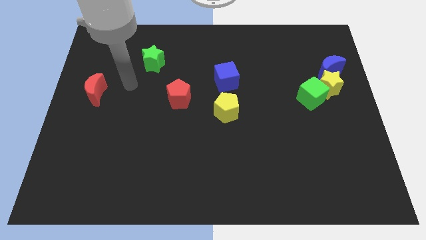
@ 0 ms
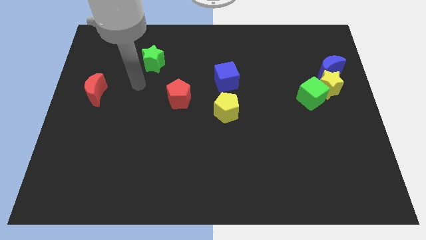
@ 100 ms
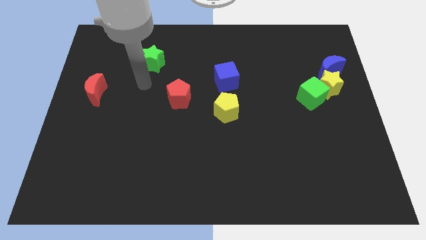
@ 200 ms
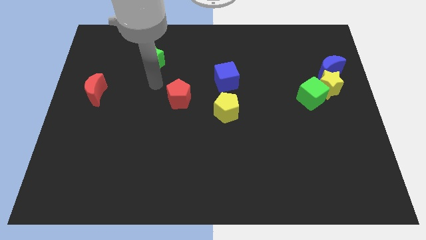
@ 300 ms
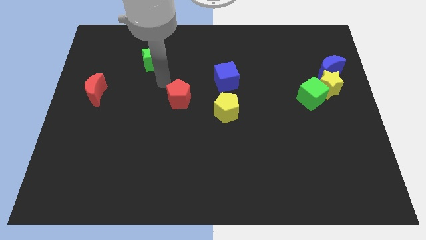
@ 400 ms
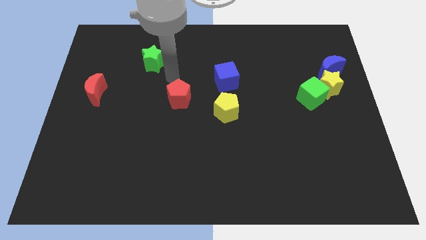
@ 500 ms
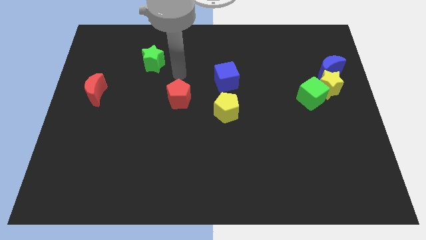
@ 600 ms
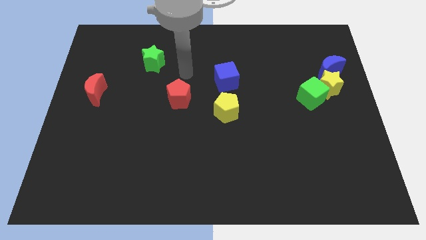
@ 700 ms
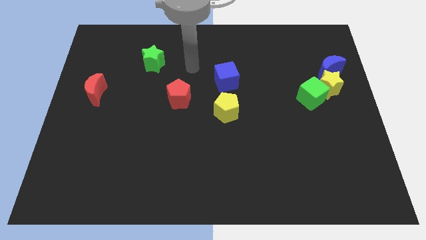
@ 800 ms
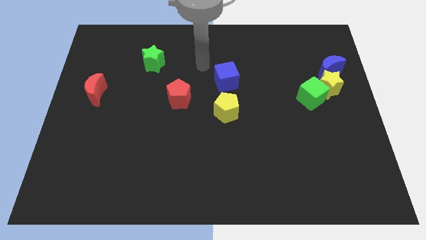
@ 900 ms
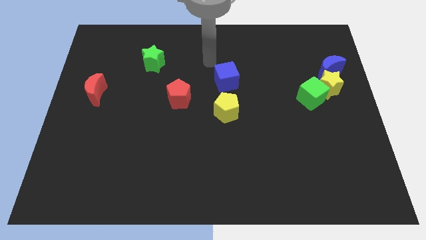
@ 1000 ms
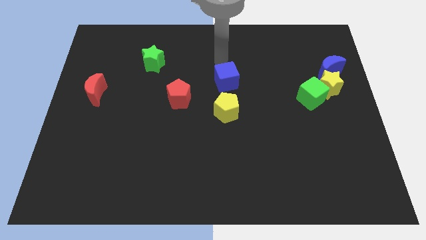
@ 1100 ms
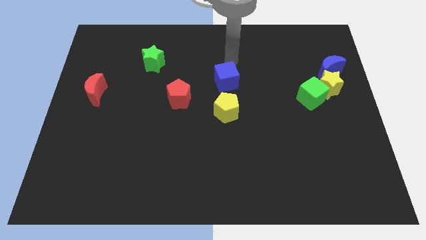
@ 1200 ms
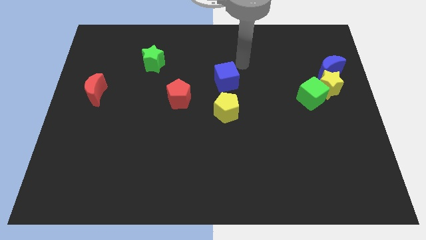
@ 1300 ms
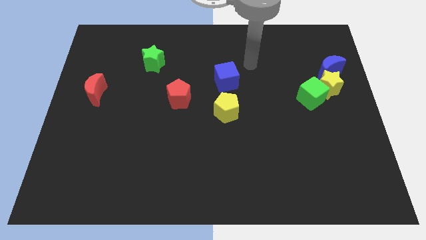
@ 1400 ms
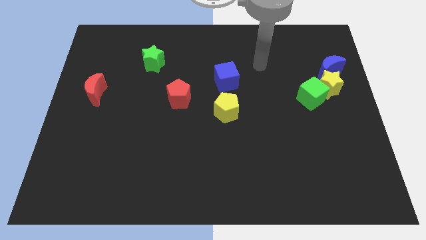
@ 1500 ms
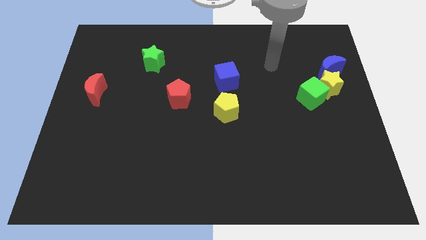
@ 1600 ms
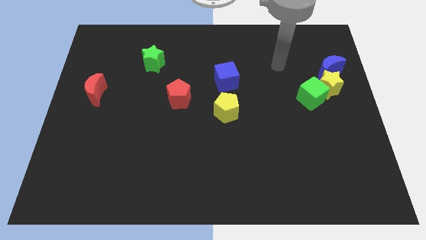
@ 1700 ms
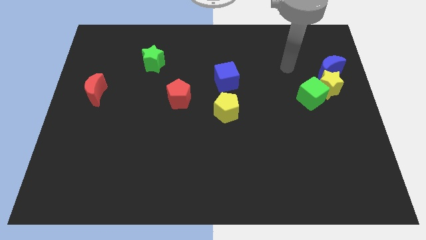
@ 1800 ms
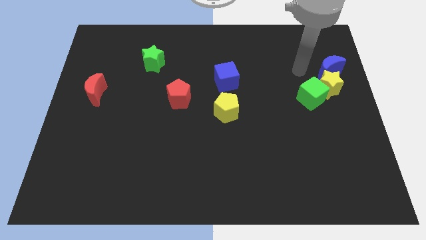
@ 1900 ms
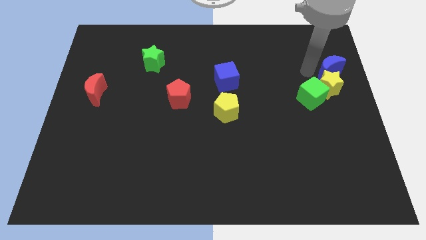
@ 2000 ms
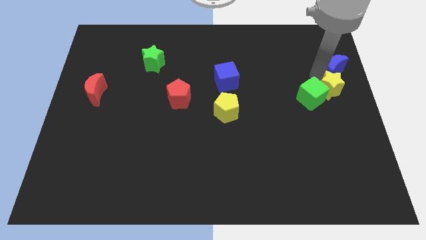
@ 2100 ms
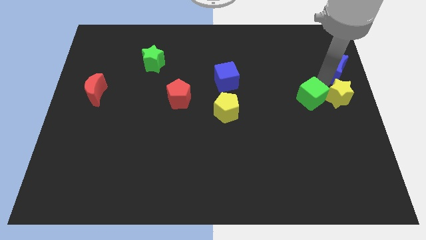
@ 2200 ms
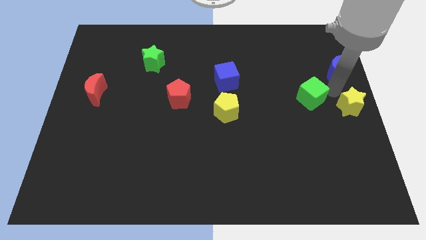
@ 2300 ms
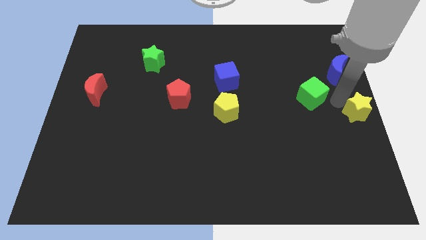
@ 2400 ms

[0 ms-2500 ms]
pull the green cube apart from the yellow star

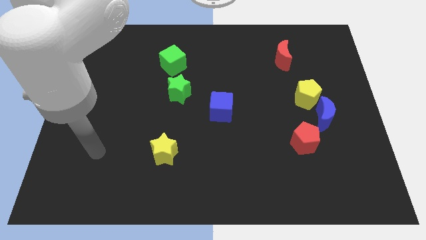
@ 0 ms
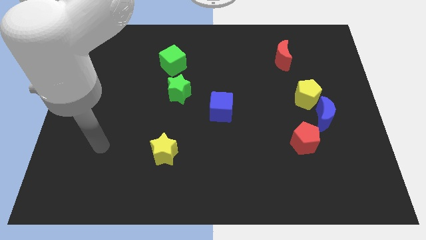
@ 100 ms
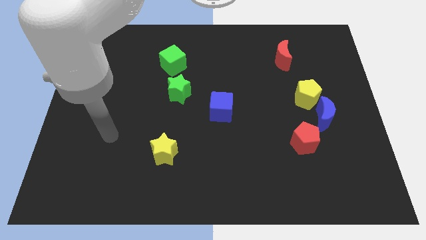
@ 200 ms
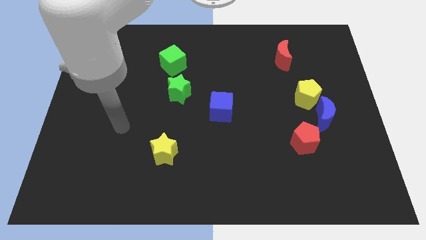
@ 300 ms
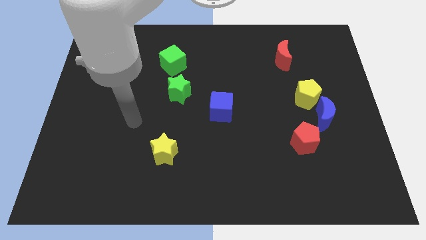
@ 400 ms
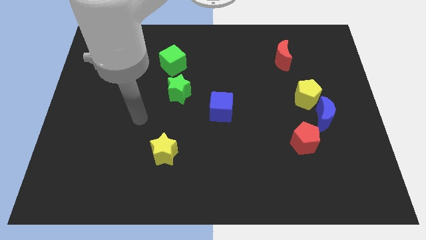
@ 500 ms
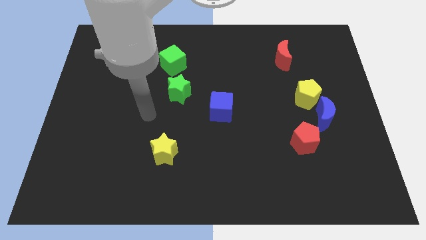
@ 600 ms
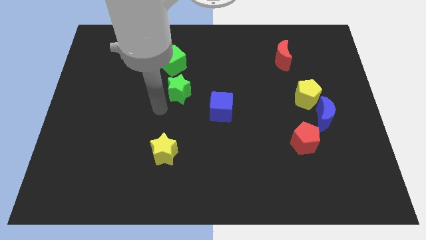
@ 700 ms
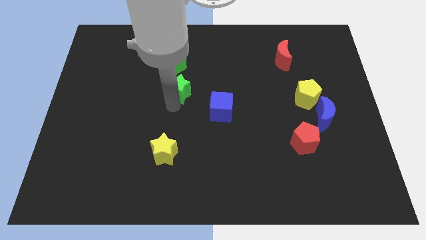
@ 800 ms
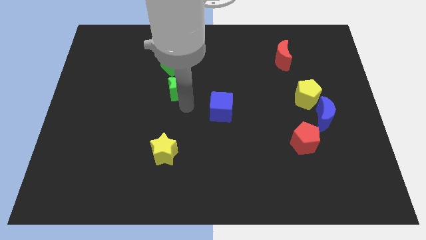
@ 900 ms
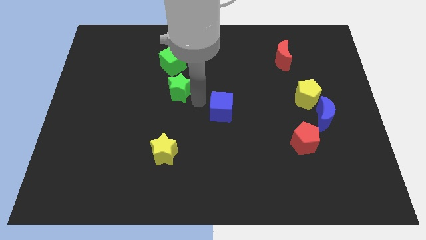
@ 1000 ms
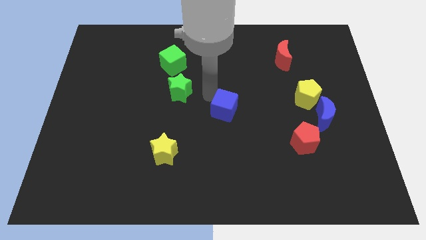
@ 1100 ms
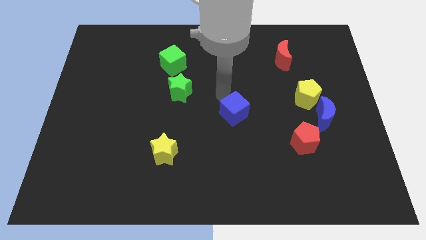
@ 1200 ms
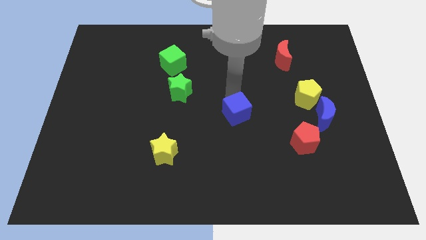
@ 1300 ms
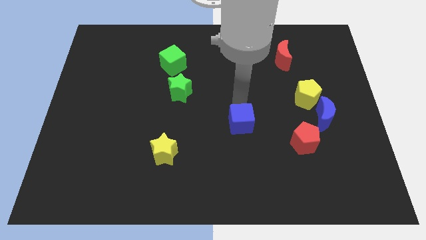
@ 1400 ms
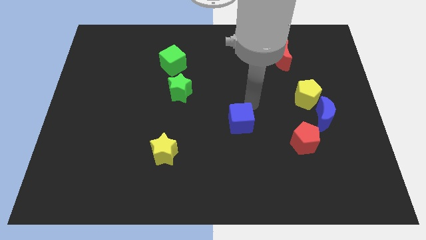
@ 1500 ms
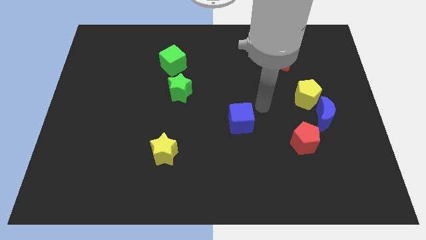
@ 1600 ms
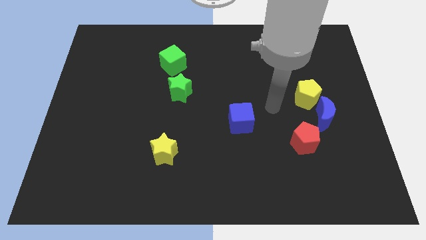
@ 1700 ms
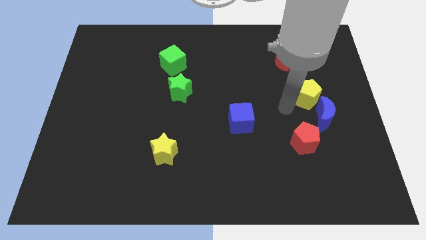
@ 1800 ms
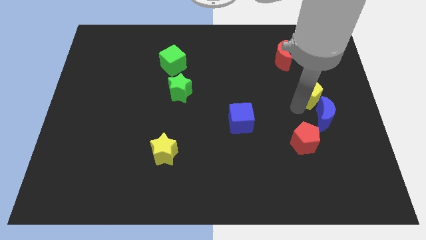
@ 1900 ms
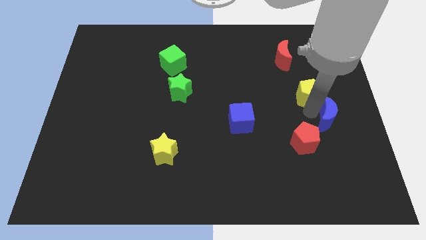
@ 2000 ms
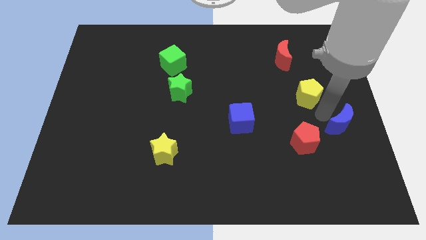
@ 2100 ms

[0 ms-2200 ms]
pull the yellow pentagon apart from the blue moon

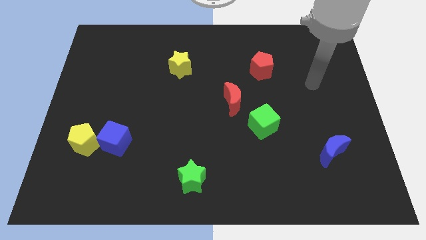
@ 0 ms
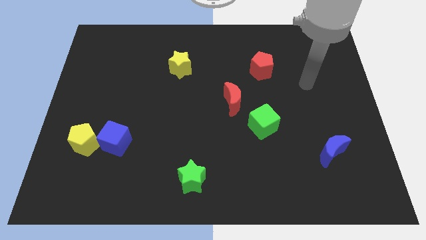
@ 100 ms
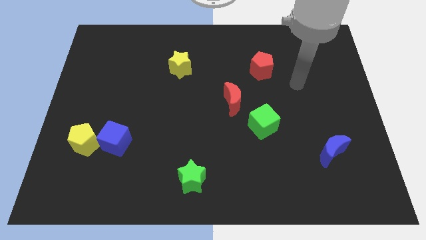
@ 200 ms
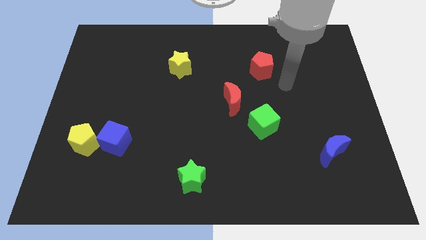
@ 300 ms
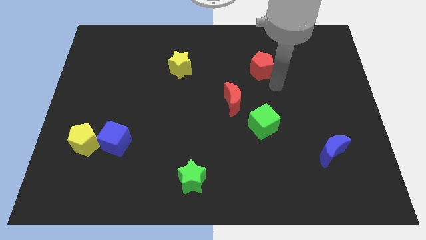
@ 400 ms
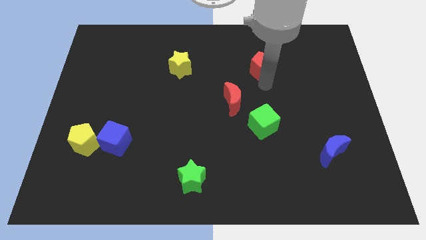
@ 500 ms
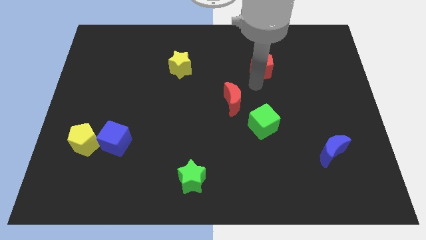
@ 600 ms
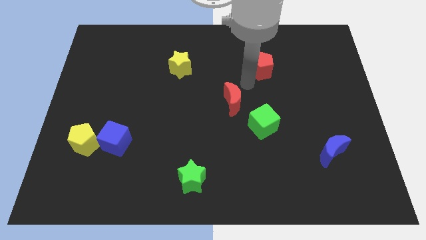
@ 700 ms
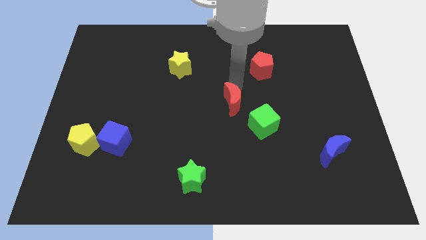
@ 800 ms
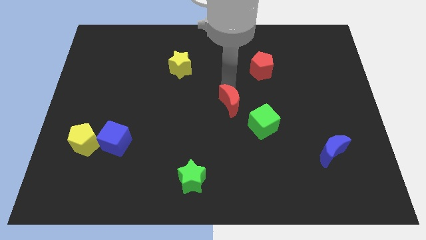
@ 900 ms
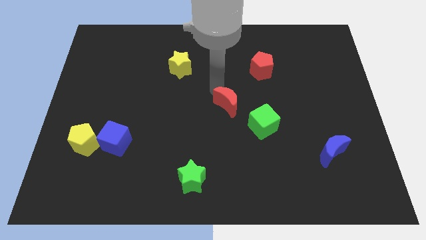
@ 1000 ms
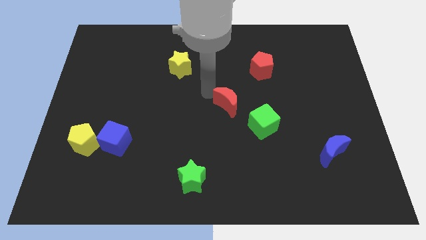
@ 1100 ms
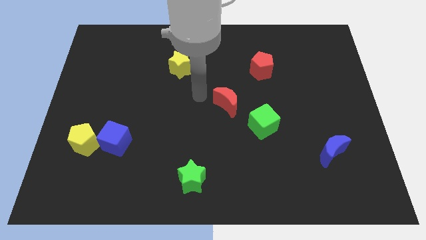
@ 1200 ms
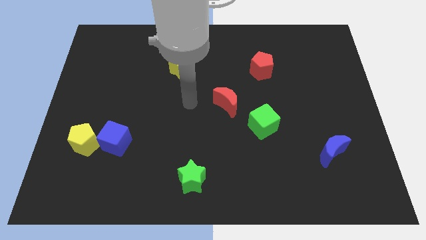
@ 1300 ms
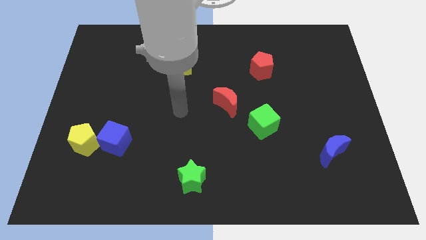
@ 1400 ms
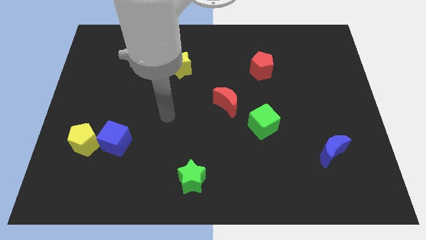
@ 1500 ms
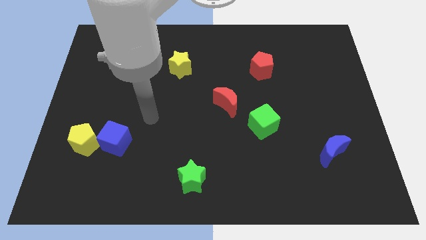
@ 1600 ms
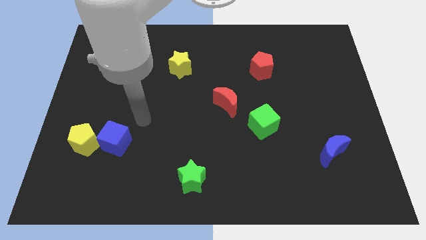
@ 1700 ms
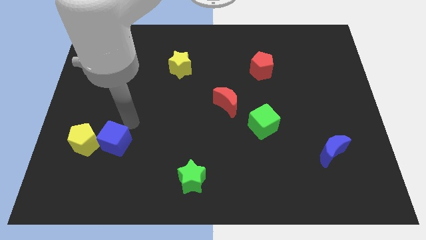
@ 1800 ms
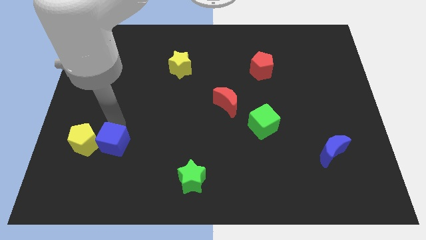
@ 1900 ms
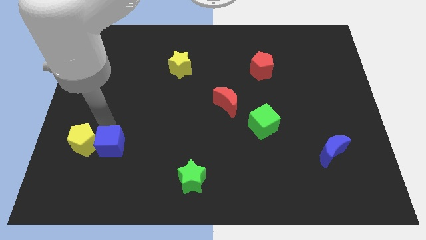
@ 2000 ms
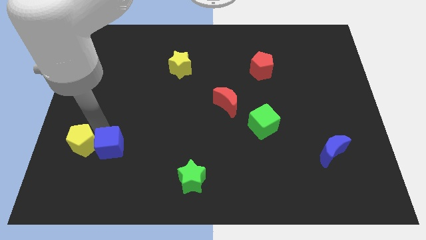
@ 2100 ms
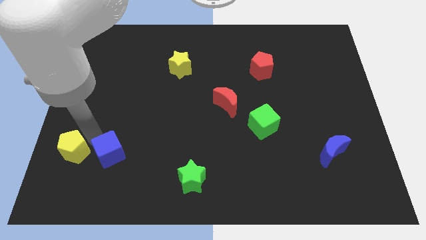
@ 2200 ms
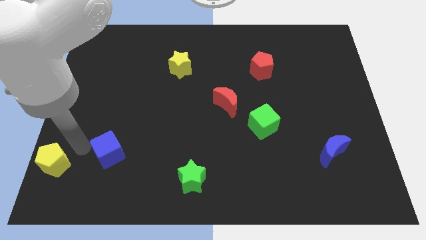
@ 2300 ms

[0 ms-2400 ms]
pull the blue cube apart from the yellow pentagon

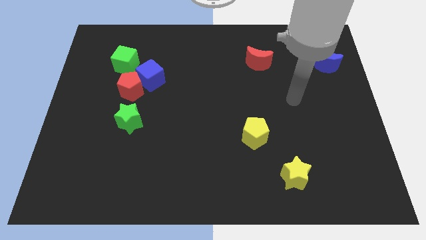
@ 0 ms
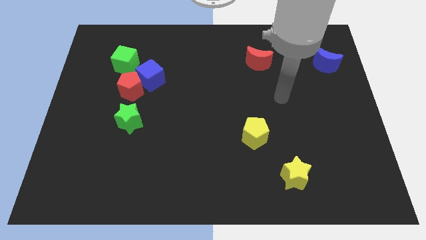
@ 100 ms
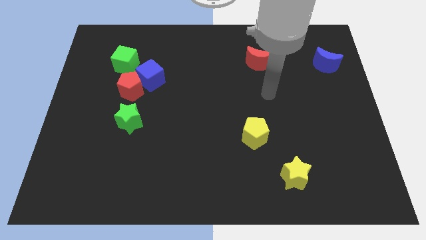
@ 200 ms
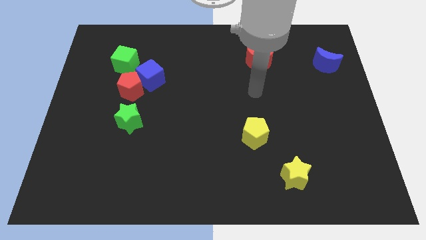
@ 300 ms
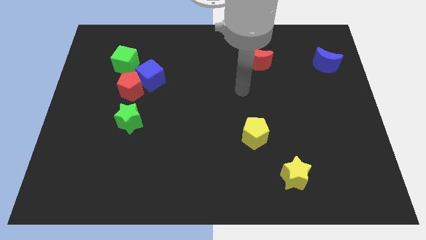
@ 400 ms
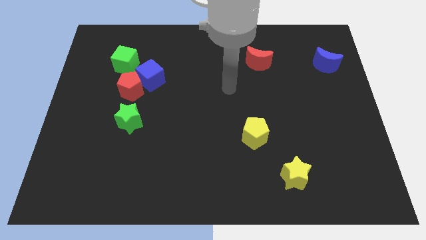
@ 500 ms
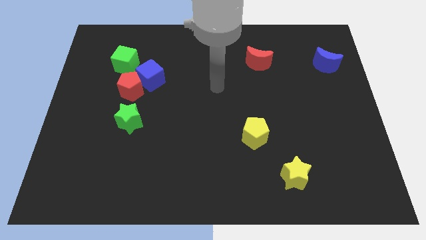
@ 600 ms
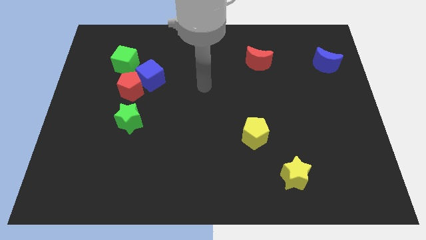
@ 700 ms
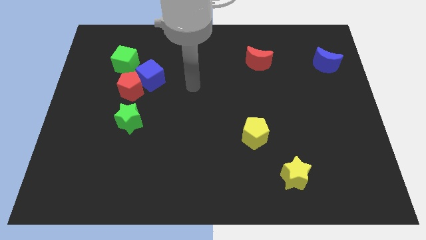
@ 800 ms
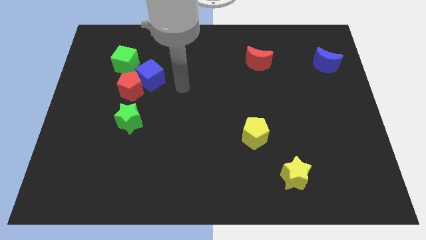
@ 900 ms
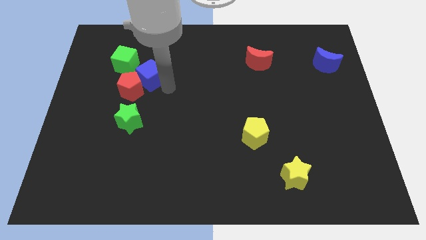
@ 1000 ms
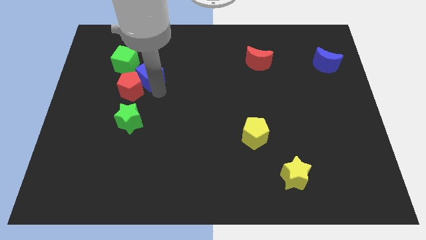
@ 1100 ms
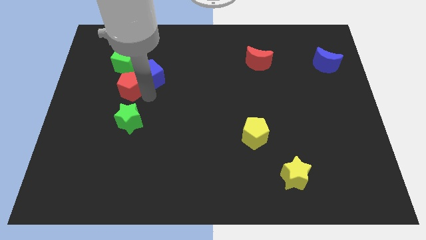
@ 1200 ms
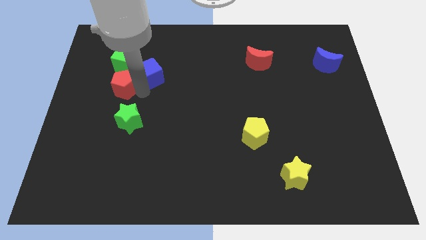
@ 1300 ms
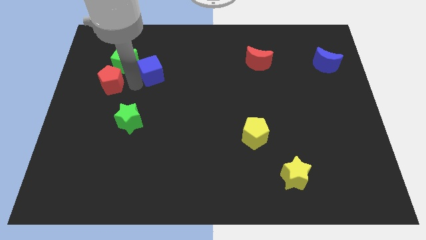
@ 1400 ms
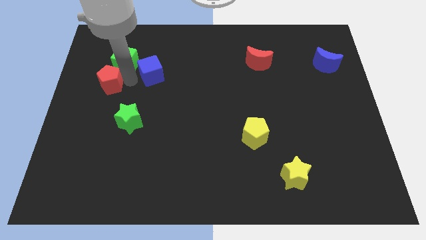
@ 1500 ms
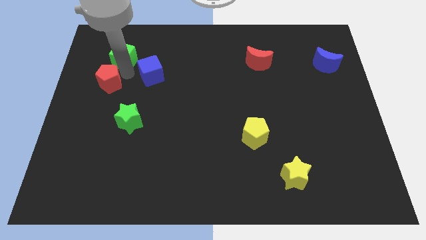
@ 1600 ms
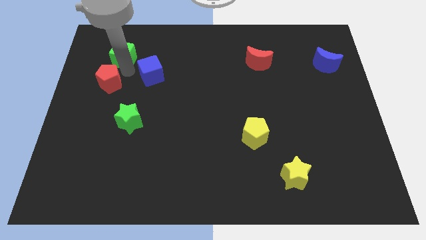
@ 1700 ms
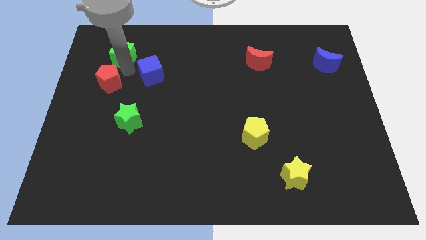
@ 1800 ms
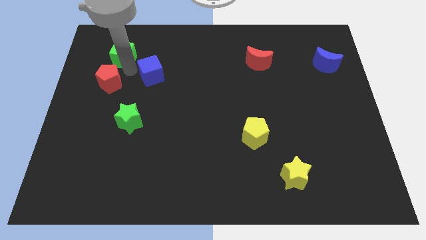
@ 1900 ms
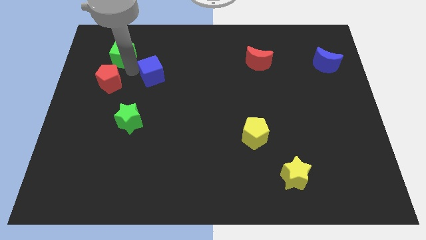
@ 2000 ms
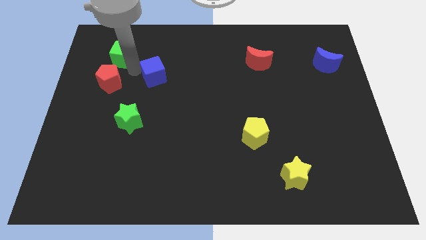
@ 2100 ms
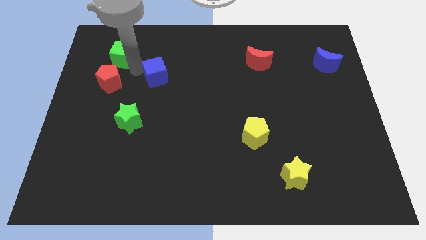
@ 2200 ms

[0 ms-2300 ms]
pull the blue cube apart from the red pentagon and green cube
